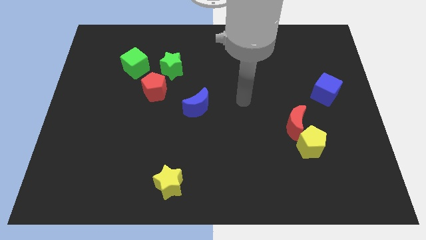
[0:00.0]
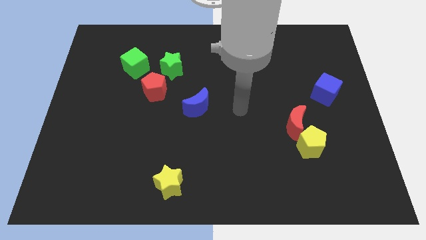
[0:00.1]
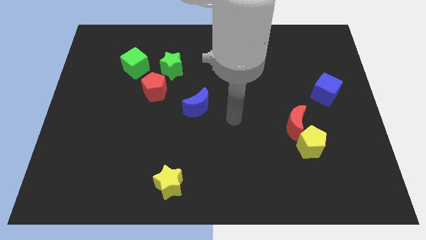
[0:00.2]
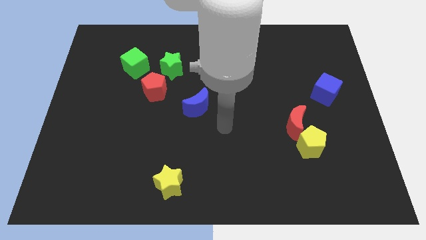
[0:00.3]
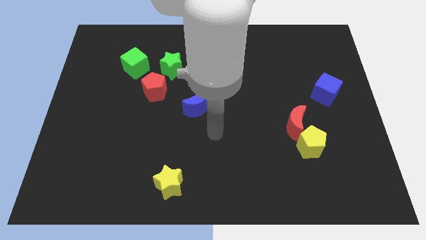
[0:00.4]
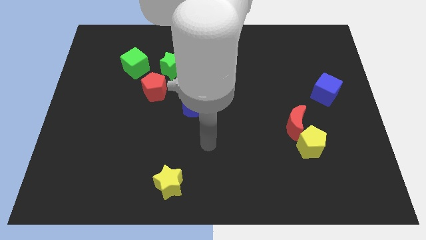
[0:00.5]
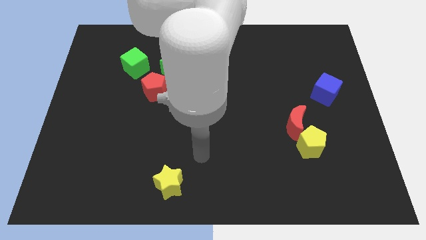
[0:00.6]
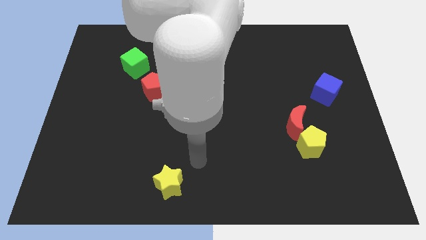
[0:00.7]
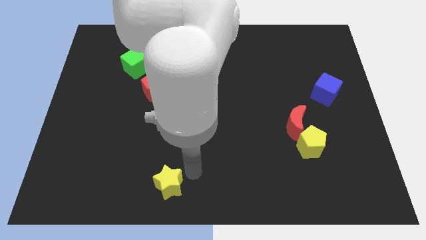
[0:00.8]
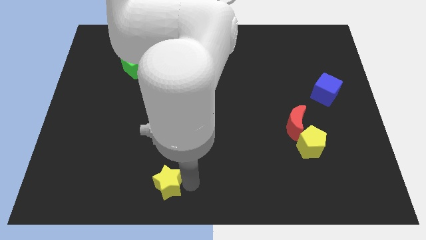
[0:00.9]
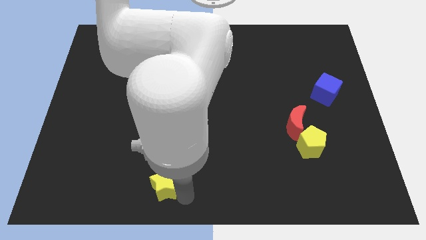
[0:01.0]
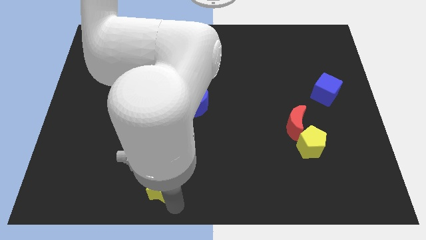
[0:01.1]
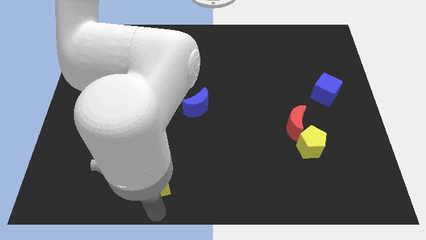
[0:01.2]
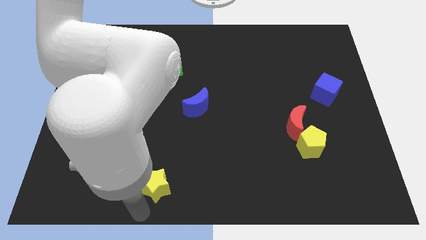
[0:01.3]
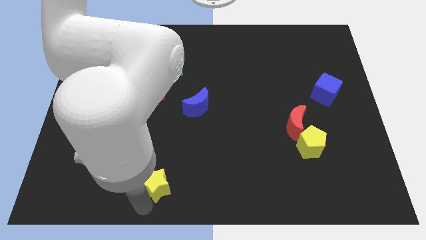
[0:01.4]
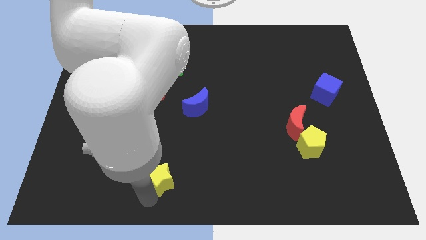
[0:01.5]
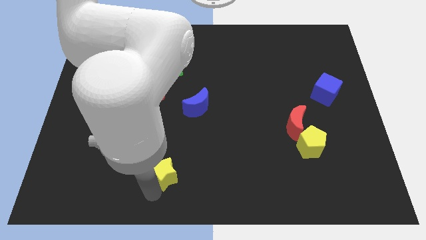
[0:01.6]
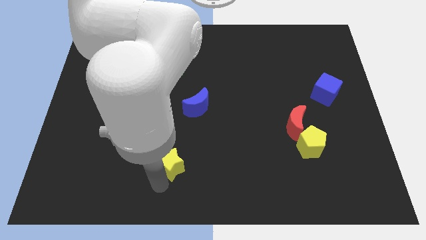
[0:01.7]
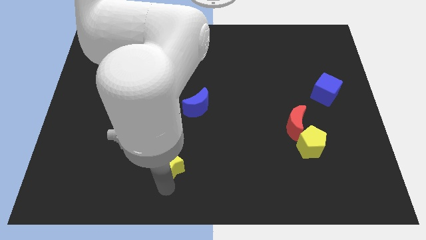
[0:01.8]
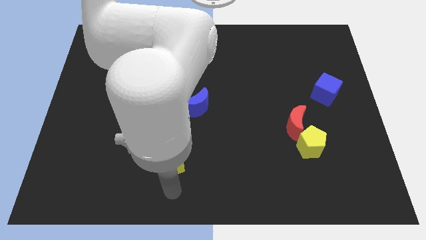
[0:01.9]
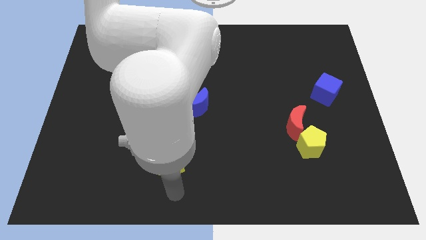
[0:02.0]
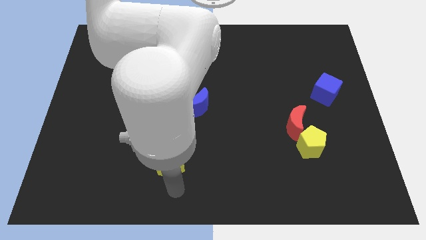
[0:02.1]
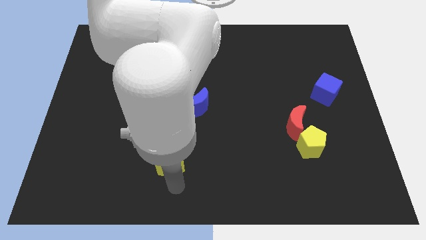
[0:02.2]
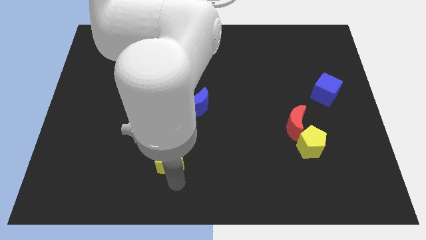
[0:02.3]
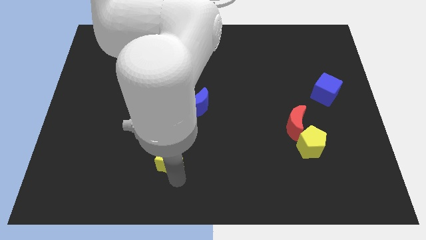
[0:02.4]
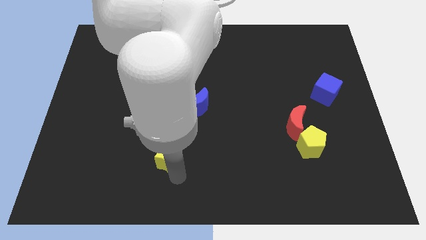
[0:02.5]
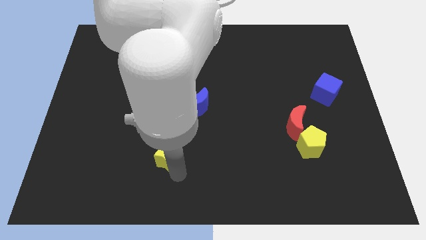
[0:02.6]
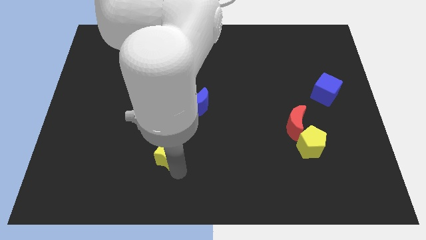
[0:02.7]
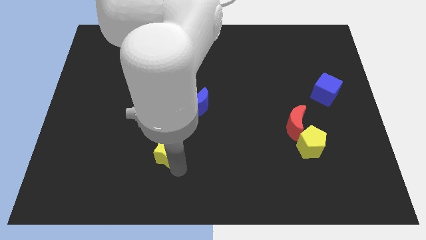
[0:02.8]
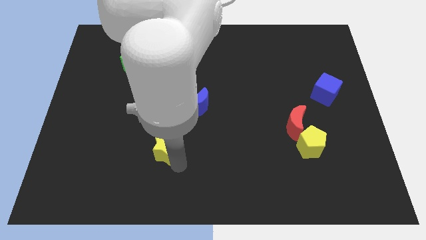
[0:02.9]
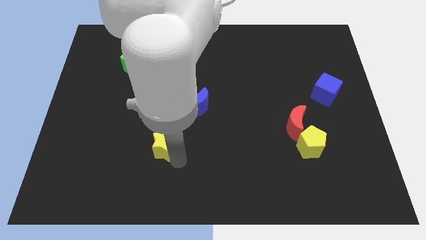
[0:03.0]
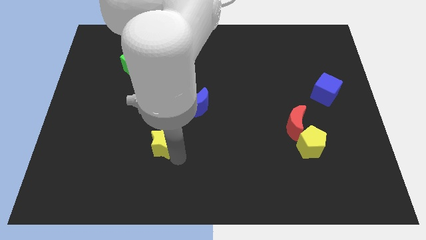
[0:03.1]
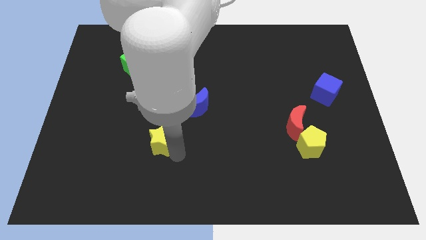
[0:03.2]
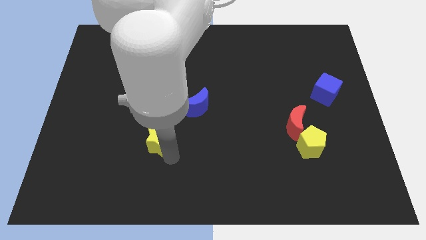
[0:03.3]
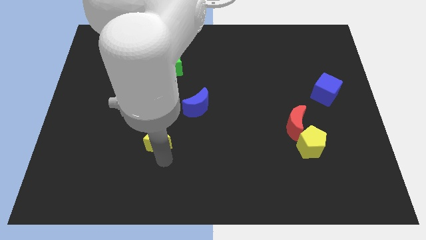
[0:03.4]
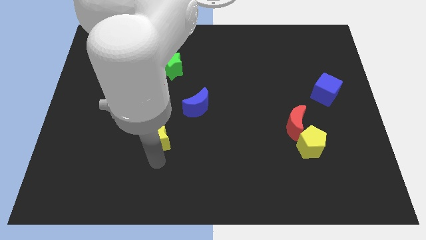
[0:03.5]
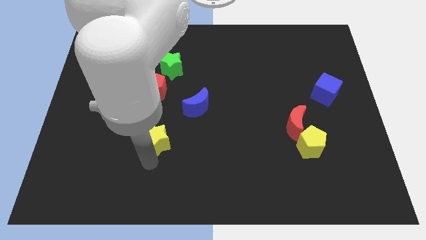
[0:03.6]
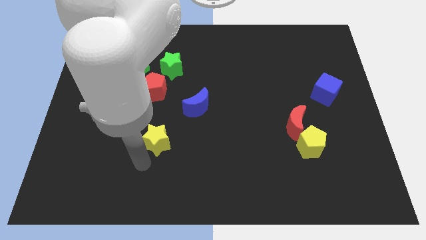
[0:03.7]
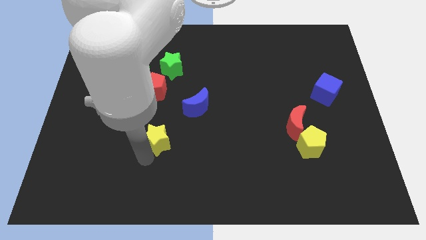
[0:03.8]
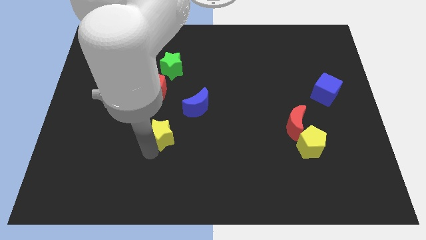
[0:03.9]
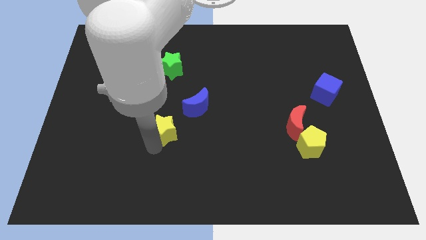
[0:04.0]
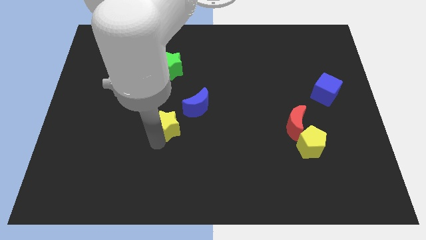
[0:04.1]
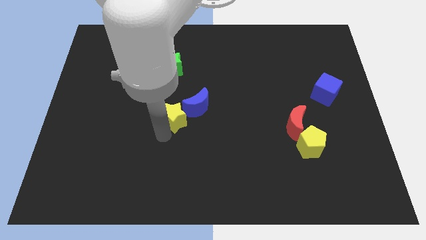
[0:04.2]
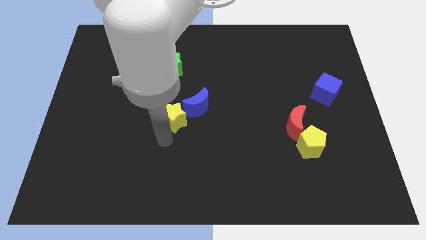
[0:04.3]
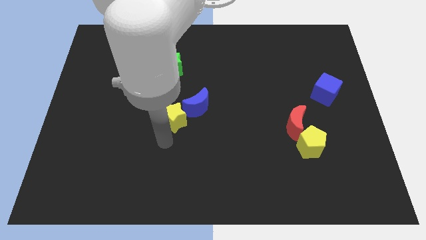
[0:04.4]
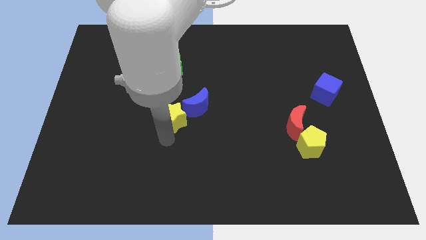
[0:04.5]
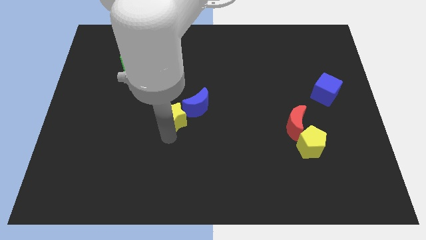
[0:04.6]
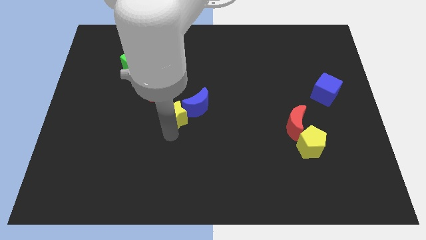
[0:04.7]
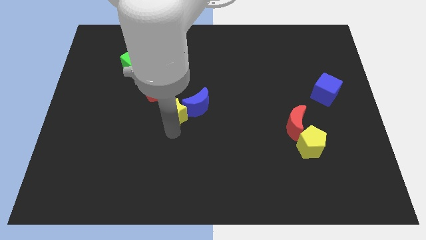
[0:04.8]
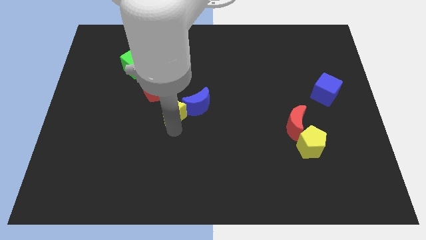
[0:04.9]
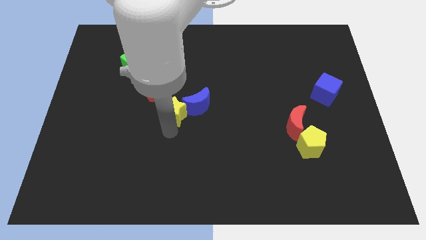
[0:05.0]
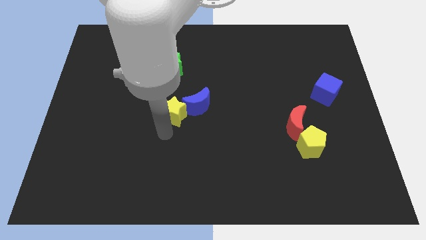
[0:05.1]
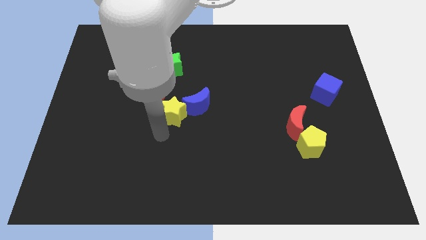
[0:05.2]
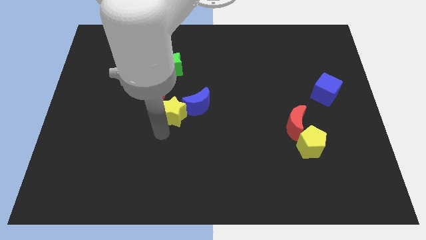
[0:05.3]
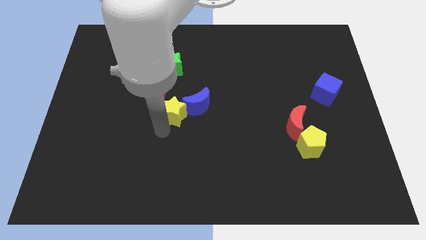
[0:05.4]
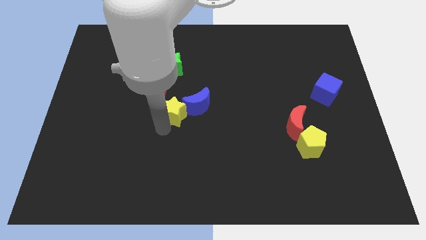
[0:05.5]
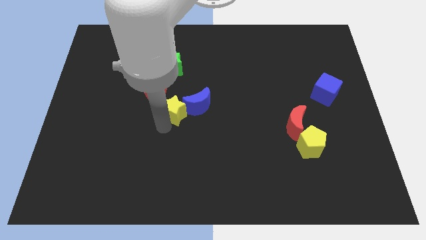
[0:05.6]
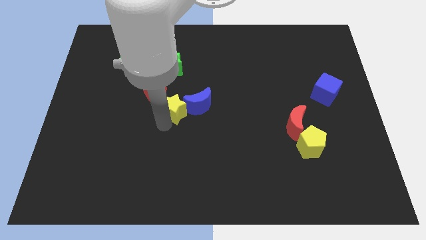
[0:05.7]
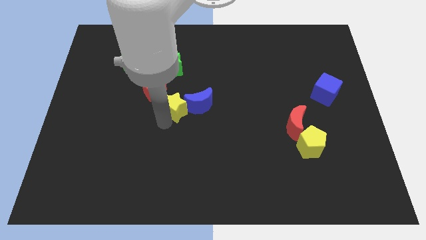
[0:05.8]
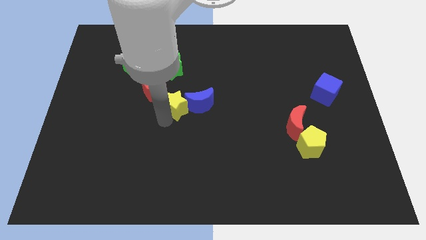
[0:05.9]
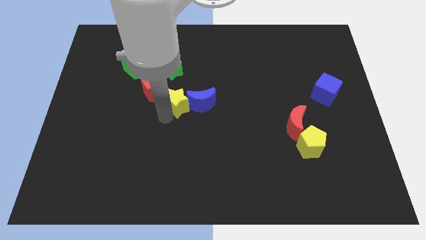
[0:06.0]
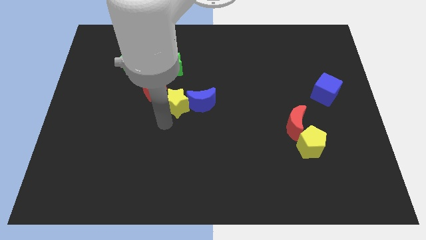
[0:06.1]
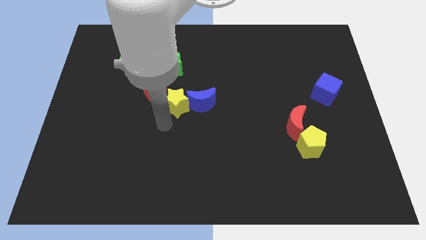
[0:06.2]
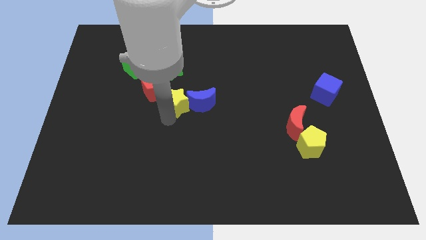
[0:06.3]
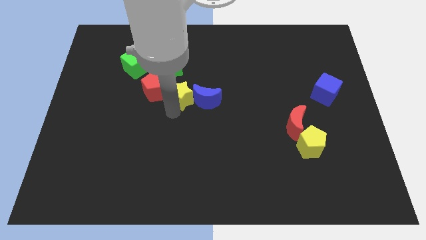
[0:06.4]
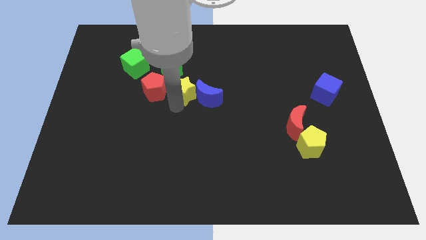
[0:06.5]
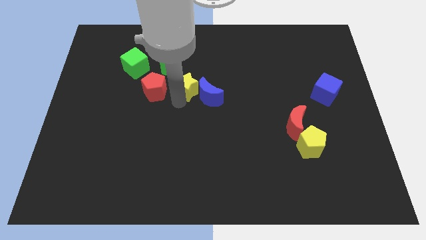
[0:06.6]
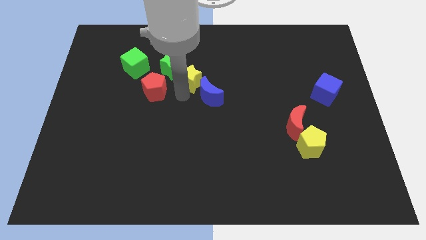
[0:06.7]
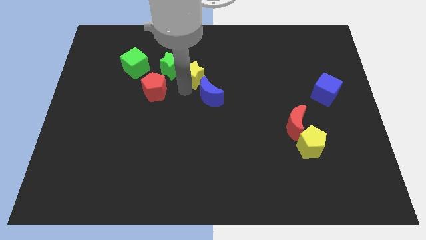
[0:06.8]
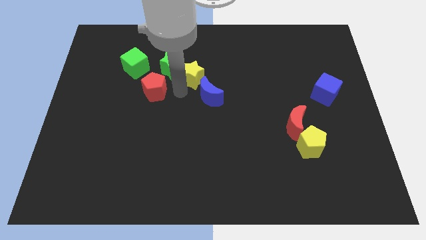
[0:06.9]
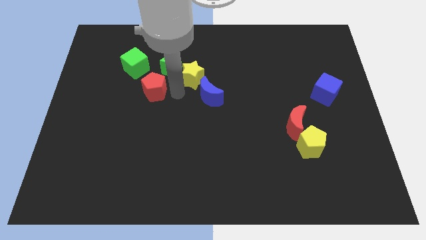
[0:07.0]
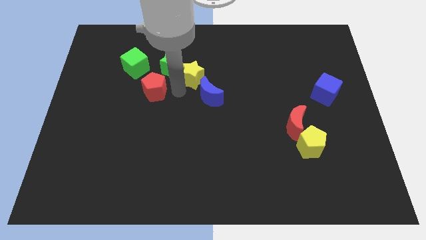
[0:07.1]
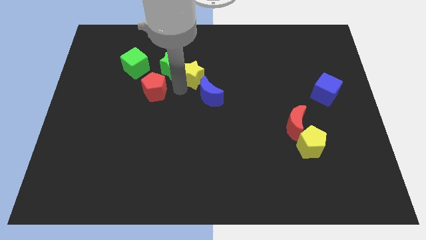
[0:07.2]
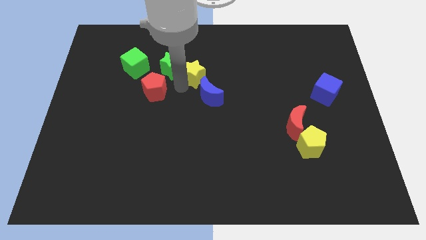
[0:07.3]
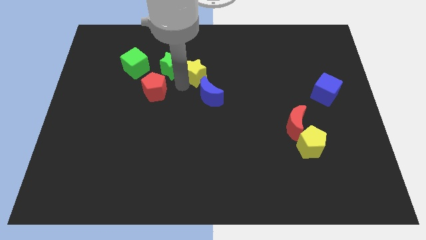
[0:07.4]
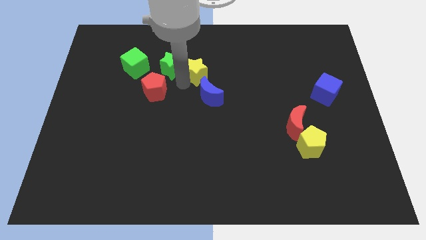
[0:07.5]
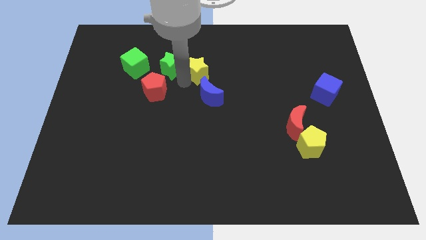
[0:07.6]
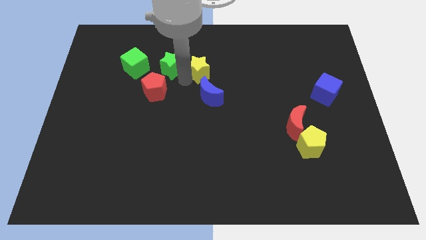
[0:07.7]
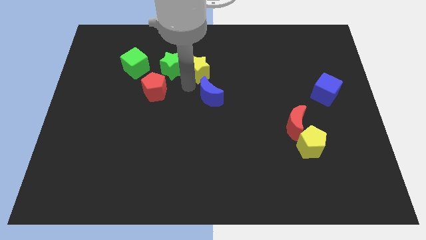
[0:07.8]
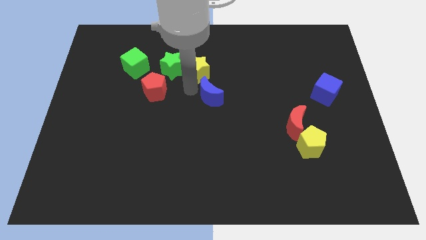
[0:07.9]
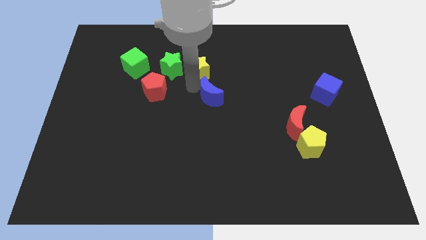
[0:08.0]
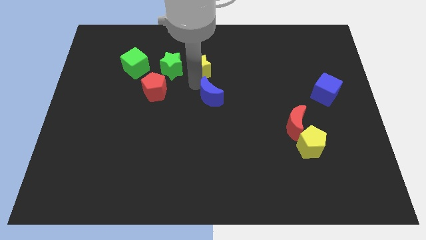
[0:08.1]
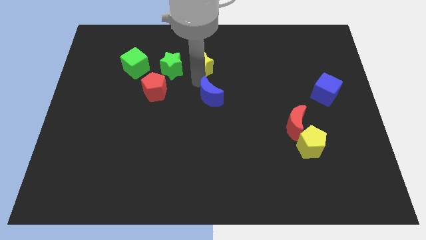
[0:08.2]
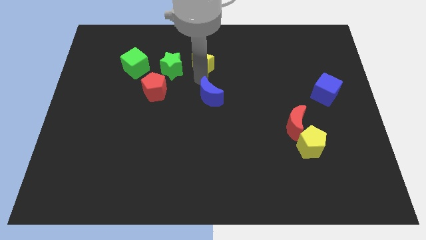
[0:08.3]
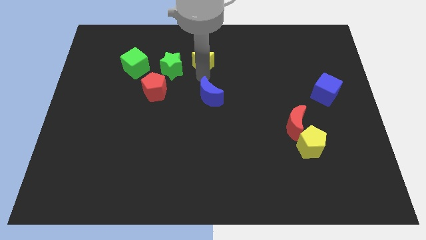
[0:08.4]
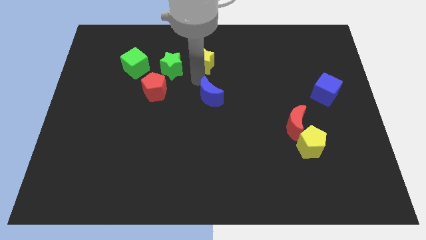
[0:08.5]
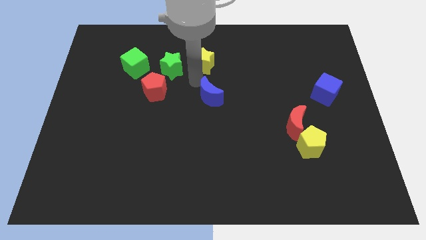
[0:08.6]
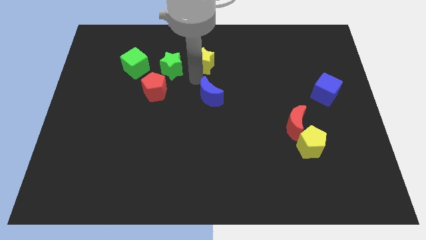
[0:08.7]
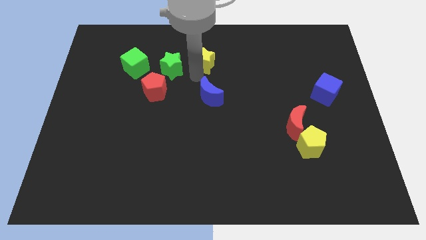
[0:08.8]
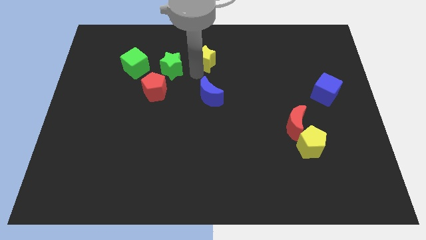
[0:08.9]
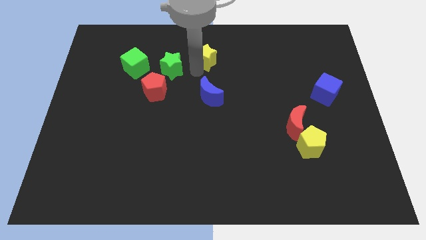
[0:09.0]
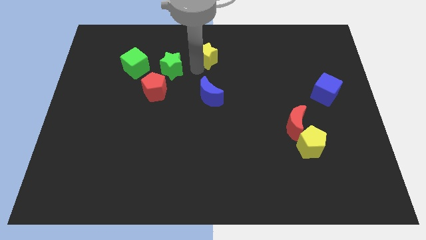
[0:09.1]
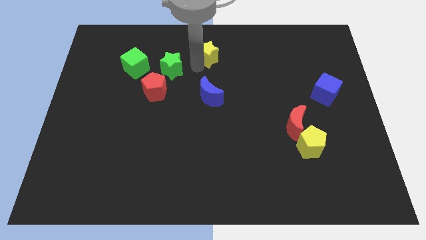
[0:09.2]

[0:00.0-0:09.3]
slide the yellow star to the top
